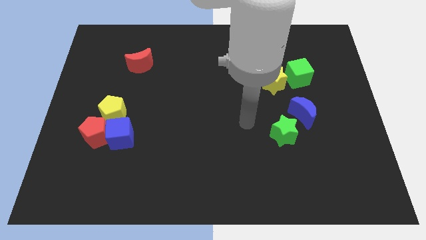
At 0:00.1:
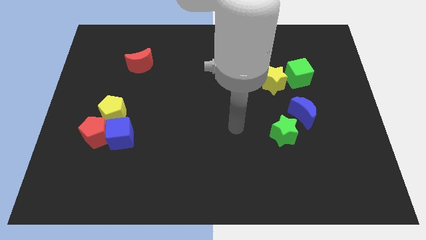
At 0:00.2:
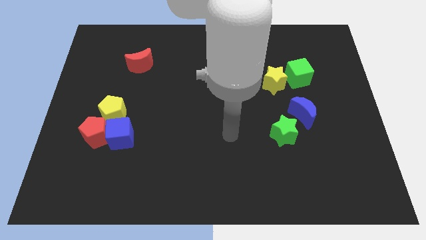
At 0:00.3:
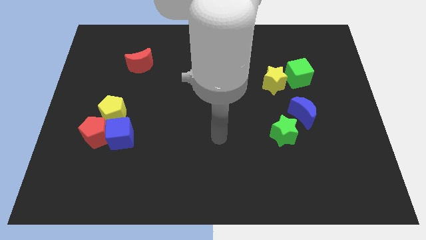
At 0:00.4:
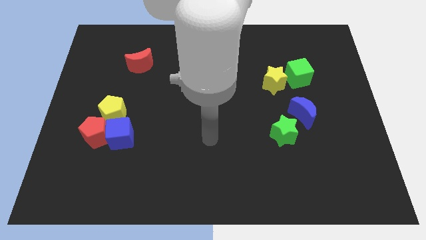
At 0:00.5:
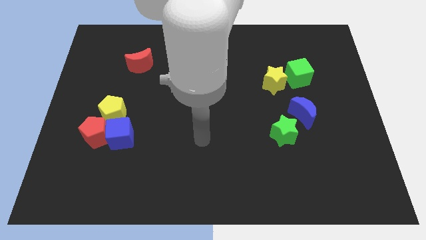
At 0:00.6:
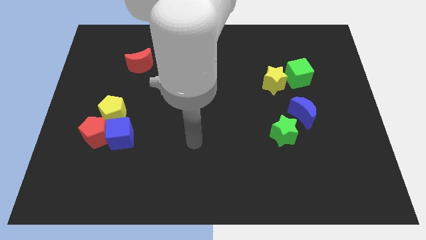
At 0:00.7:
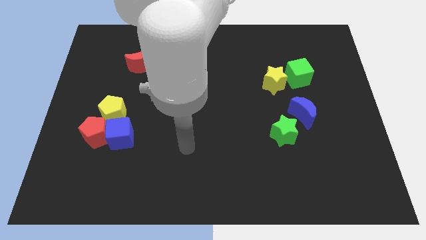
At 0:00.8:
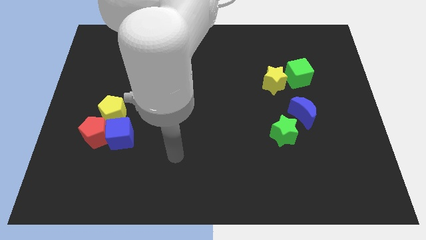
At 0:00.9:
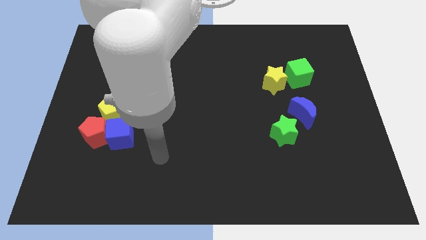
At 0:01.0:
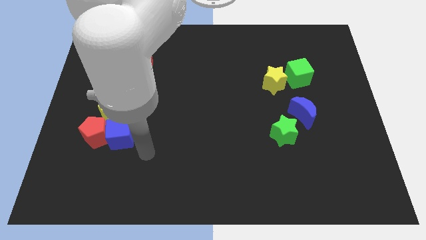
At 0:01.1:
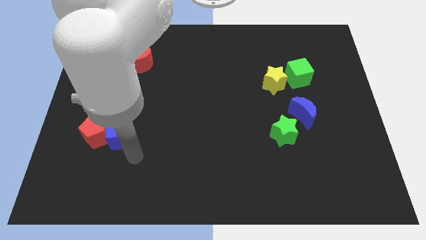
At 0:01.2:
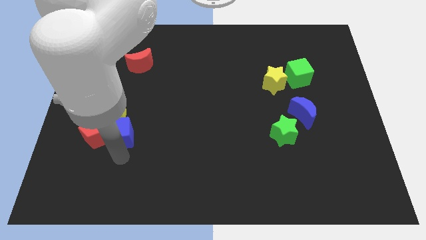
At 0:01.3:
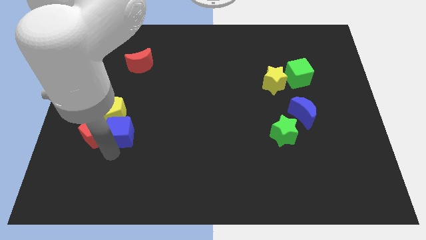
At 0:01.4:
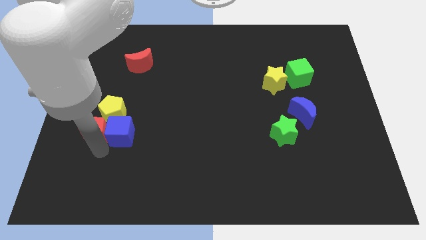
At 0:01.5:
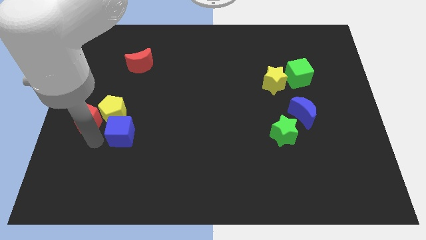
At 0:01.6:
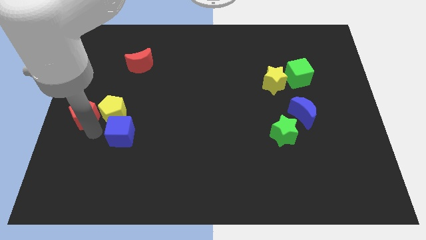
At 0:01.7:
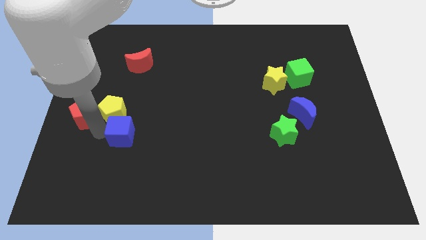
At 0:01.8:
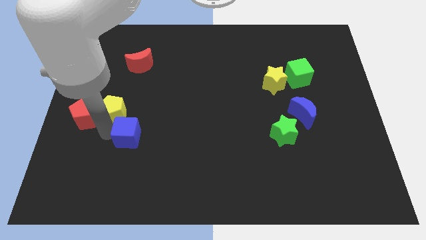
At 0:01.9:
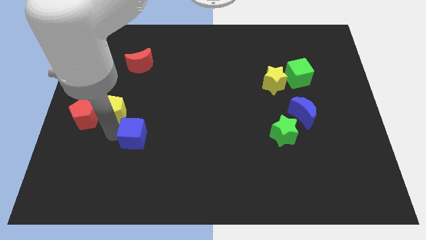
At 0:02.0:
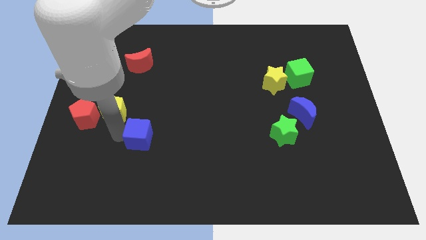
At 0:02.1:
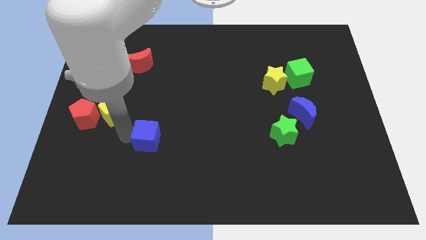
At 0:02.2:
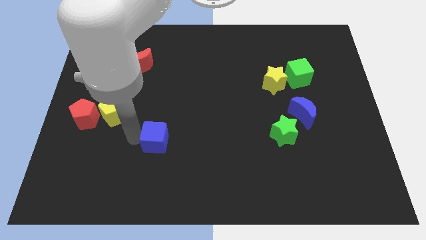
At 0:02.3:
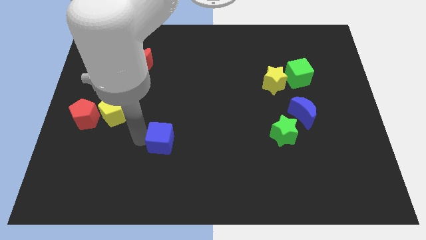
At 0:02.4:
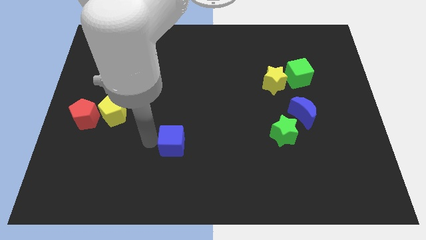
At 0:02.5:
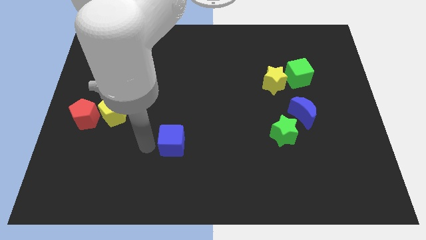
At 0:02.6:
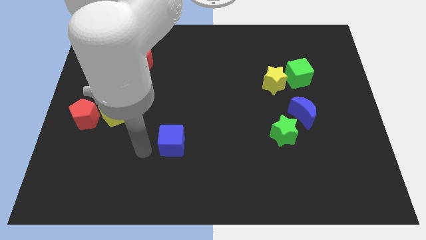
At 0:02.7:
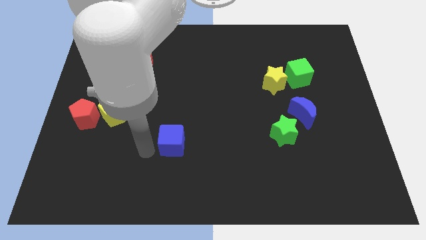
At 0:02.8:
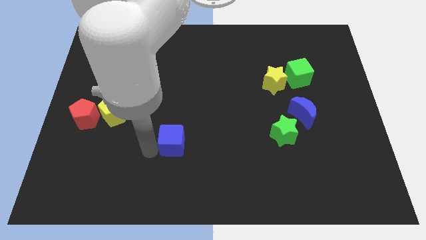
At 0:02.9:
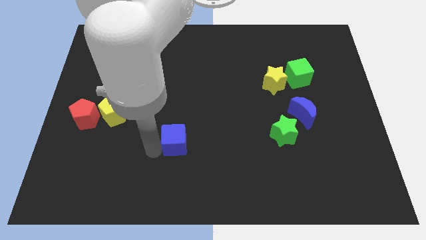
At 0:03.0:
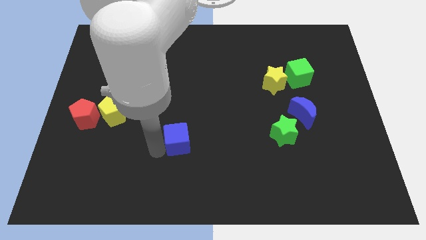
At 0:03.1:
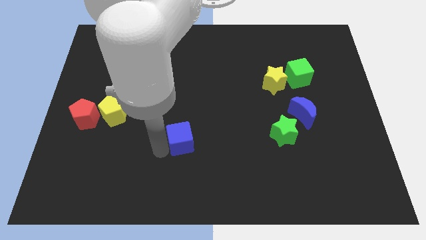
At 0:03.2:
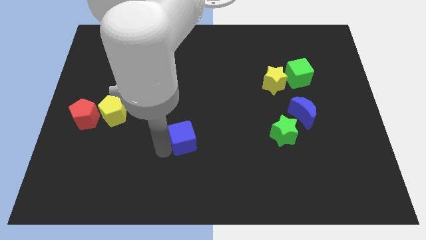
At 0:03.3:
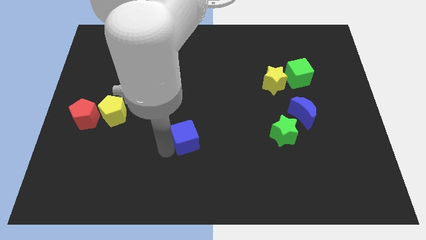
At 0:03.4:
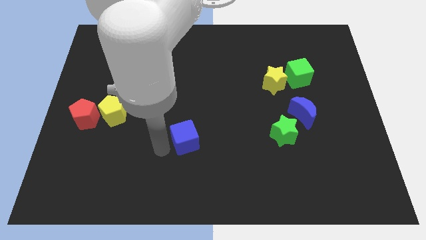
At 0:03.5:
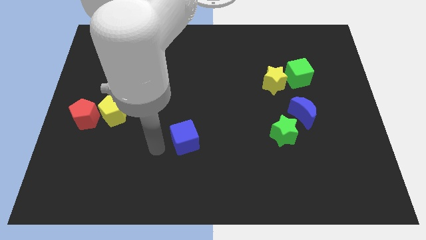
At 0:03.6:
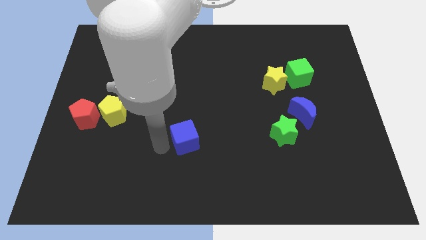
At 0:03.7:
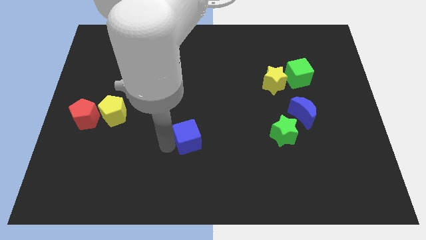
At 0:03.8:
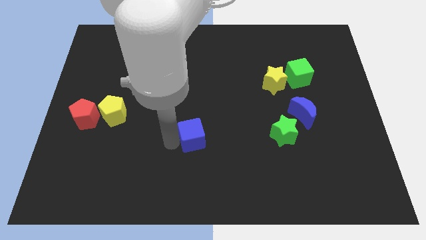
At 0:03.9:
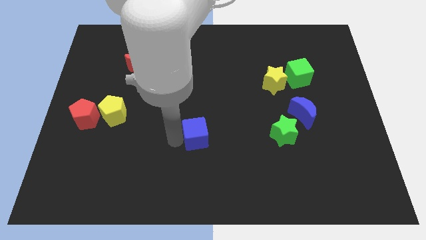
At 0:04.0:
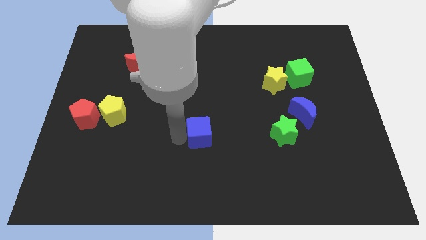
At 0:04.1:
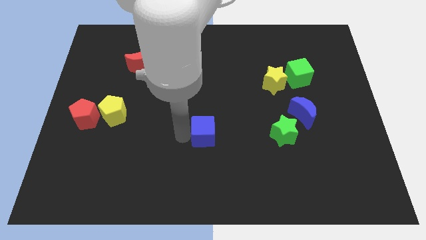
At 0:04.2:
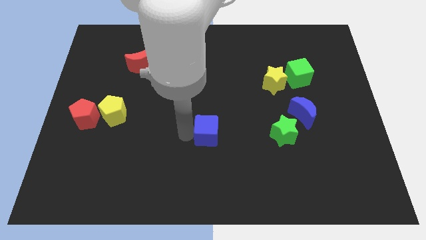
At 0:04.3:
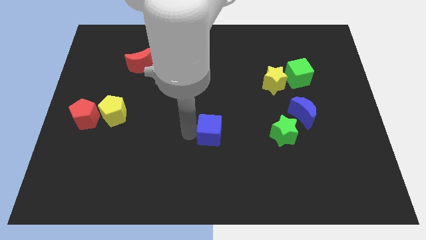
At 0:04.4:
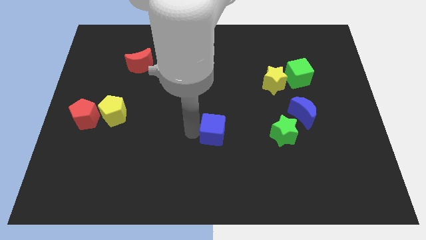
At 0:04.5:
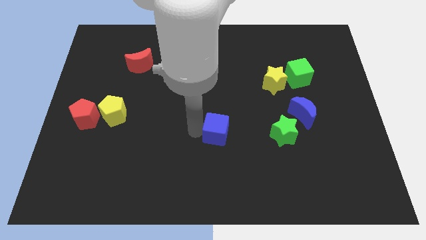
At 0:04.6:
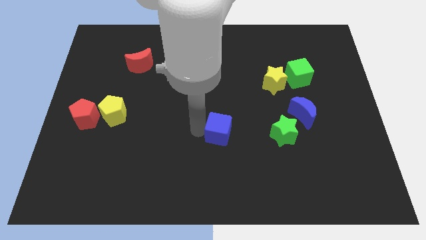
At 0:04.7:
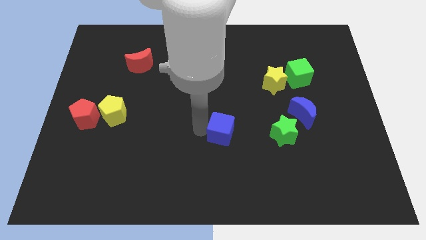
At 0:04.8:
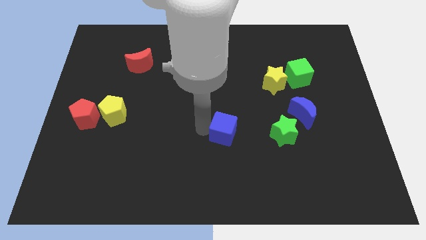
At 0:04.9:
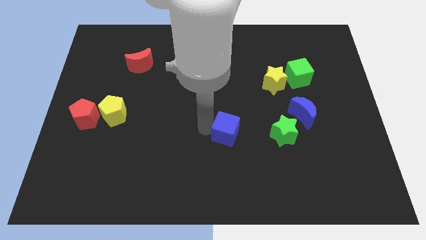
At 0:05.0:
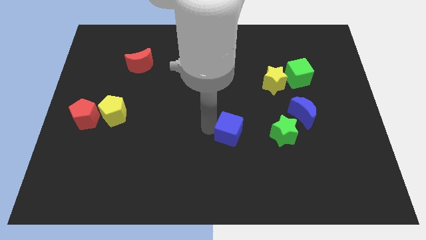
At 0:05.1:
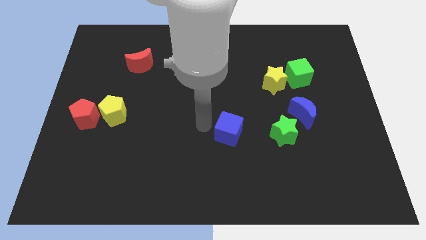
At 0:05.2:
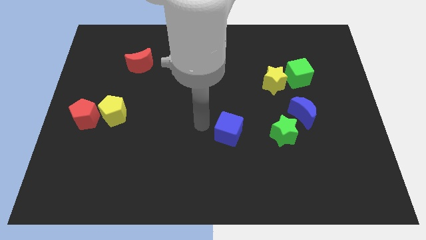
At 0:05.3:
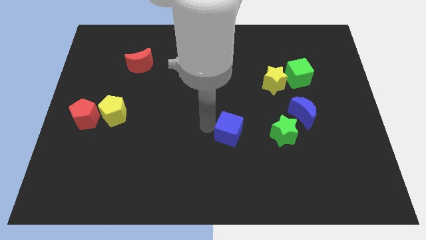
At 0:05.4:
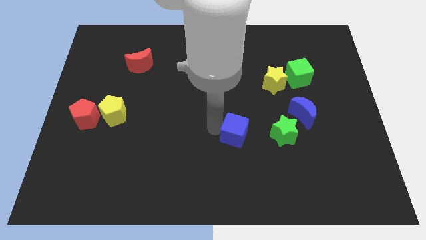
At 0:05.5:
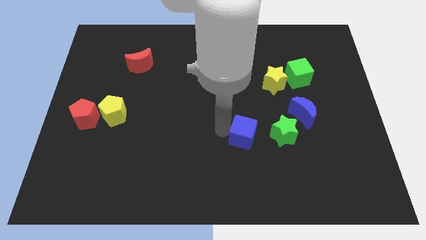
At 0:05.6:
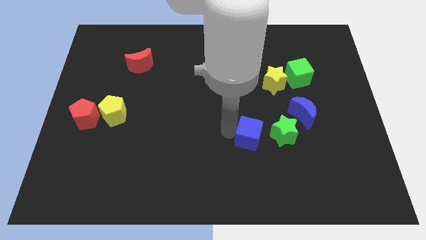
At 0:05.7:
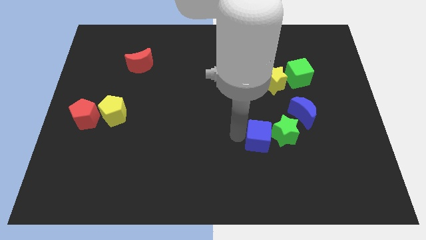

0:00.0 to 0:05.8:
move the blue cube close to the green star

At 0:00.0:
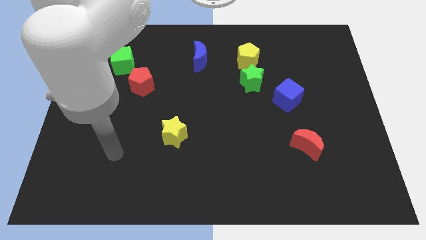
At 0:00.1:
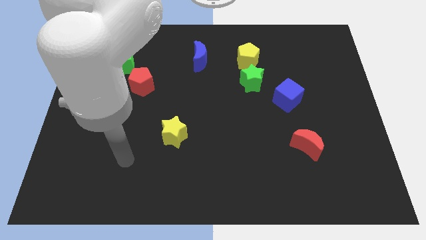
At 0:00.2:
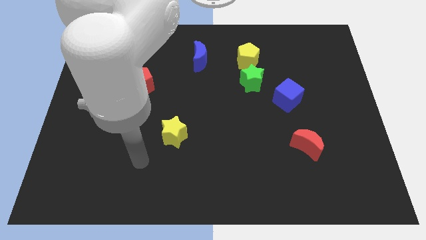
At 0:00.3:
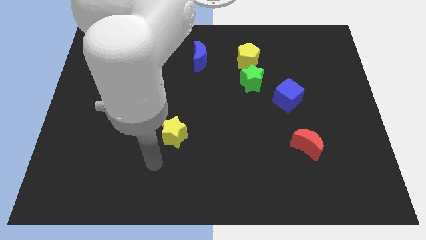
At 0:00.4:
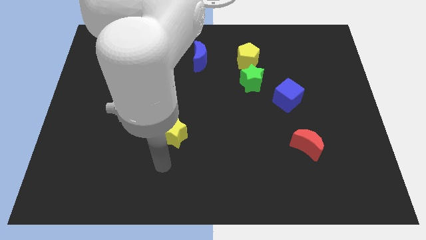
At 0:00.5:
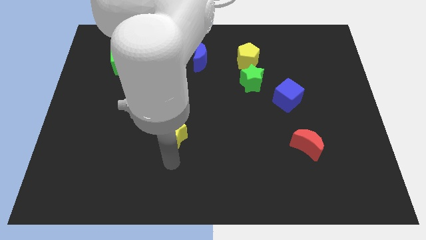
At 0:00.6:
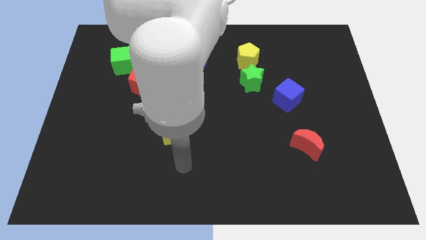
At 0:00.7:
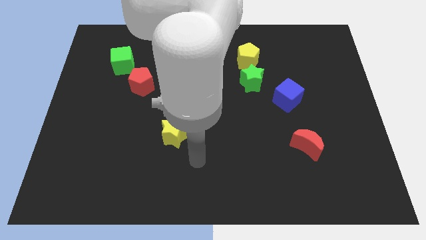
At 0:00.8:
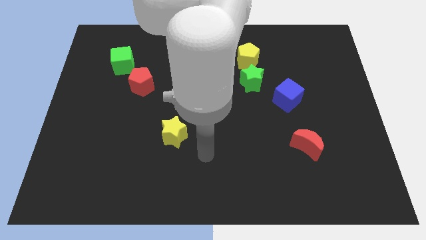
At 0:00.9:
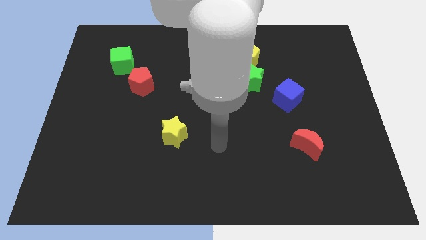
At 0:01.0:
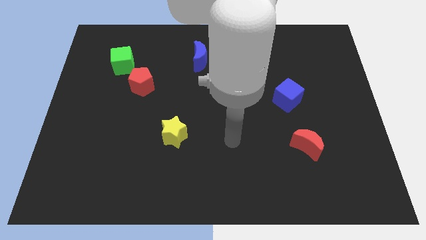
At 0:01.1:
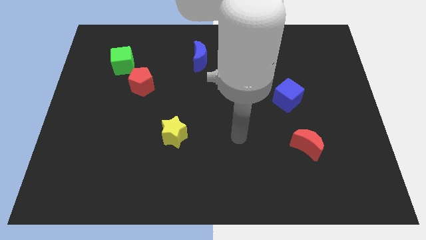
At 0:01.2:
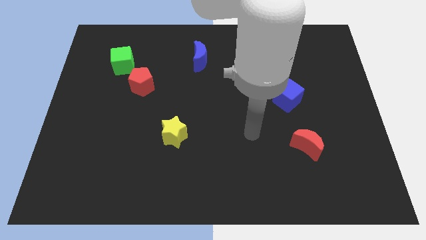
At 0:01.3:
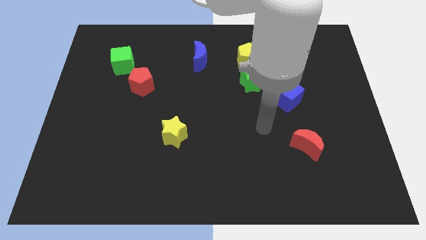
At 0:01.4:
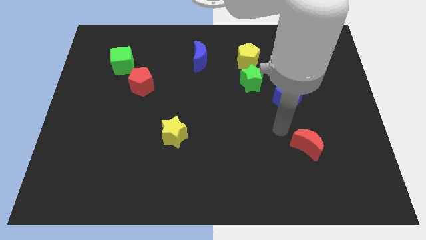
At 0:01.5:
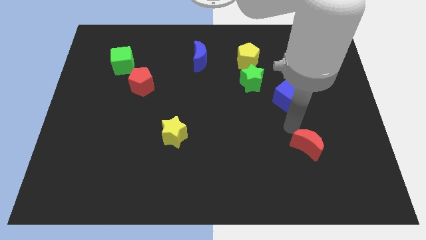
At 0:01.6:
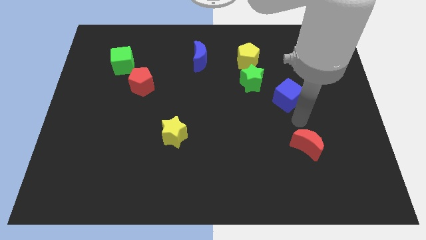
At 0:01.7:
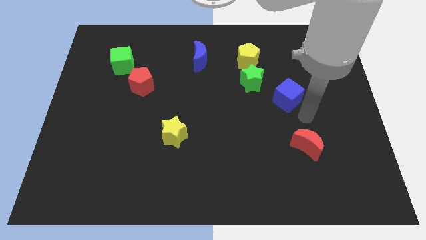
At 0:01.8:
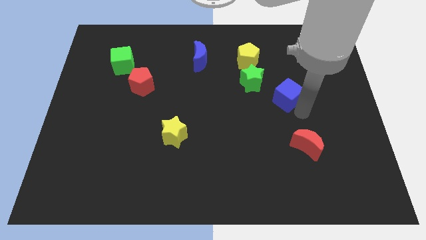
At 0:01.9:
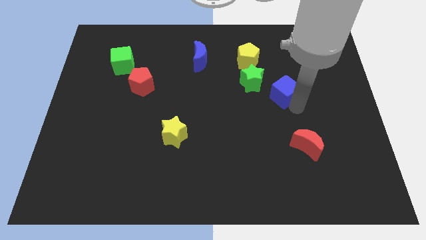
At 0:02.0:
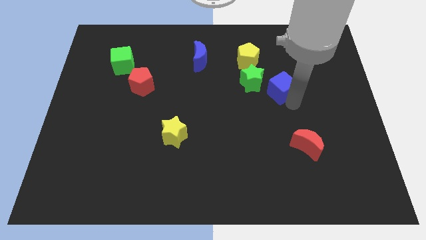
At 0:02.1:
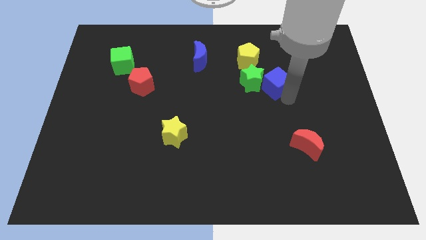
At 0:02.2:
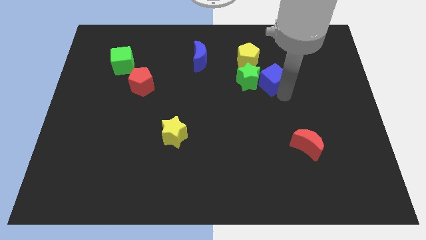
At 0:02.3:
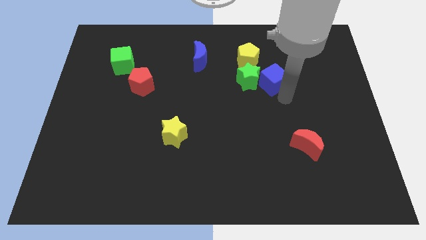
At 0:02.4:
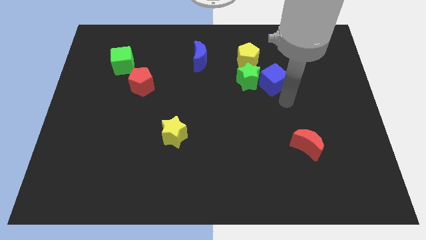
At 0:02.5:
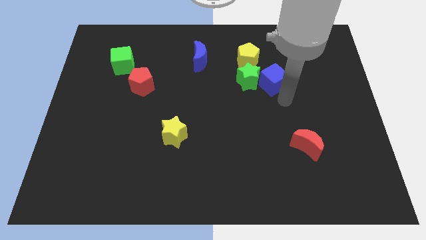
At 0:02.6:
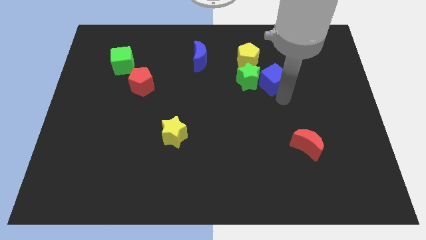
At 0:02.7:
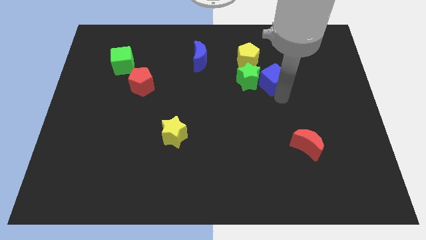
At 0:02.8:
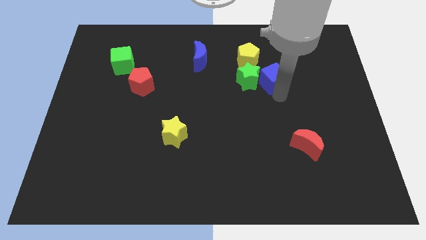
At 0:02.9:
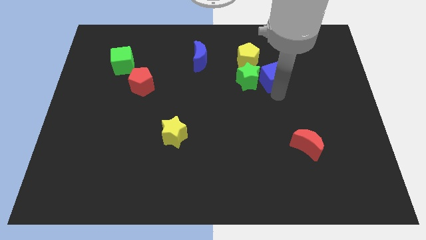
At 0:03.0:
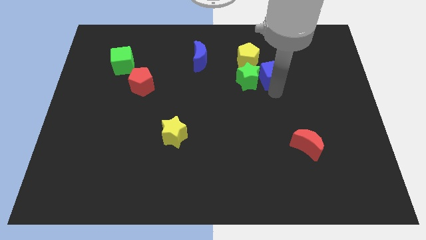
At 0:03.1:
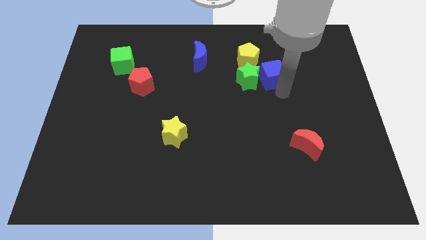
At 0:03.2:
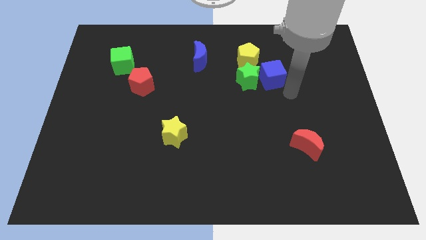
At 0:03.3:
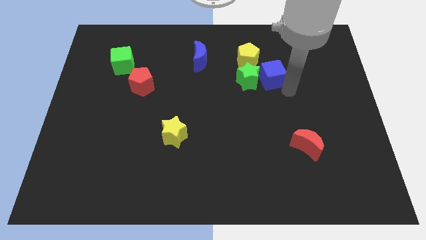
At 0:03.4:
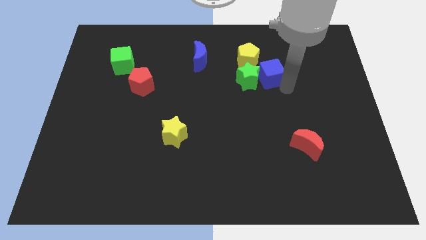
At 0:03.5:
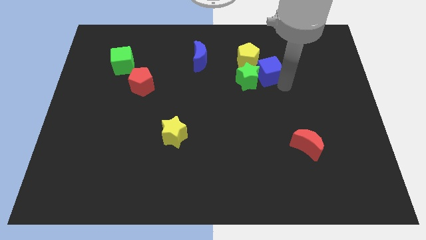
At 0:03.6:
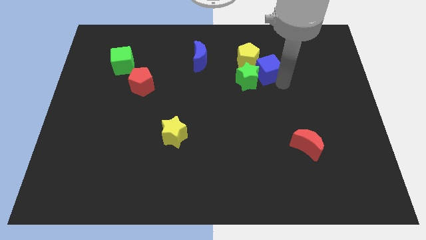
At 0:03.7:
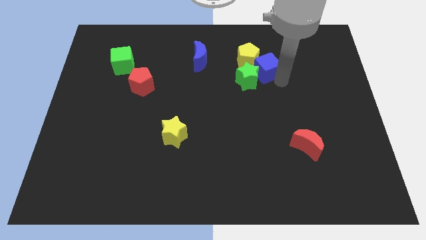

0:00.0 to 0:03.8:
put the blue cube close to the yellow pentagon
